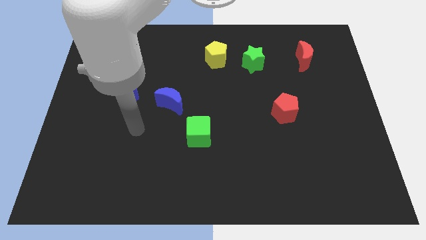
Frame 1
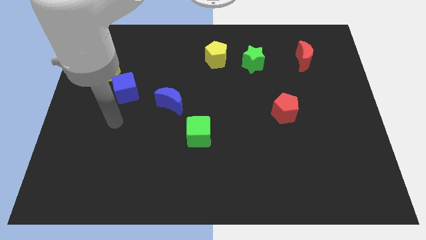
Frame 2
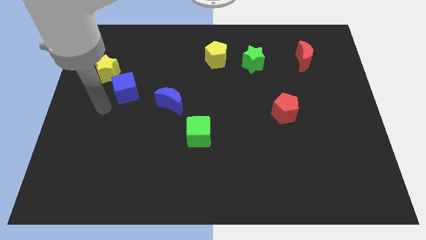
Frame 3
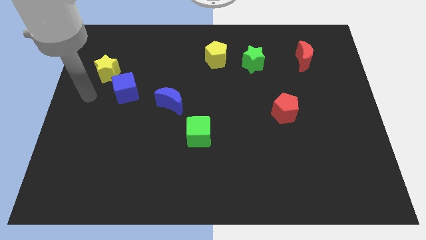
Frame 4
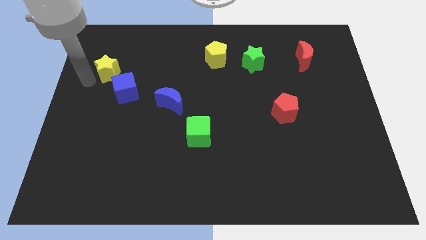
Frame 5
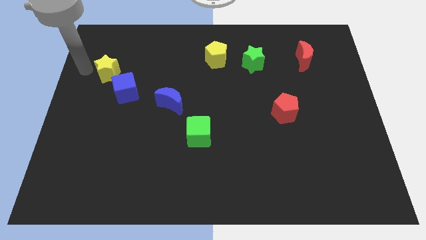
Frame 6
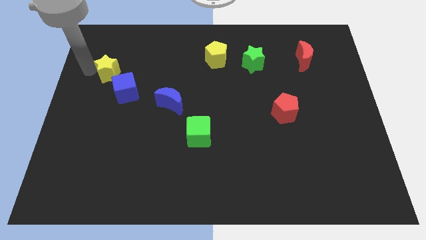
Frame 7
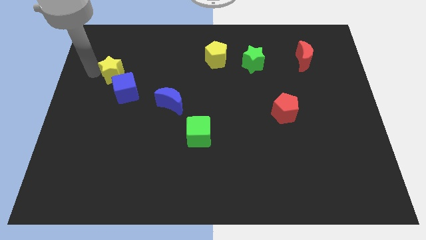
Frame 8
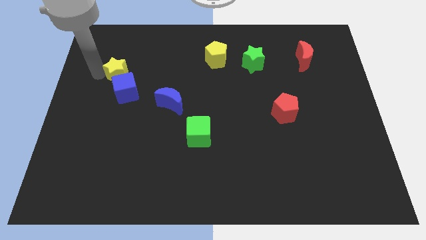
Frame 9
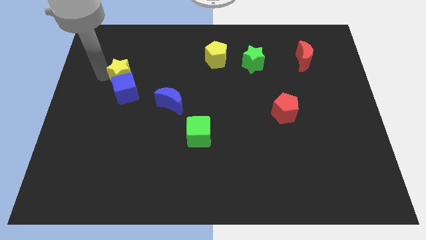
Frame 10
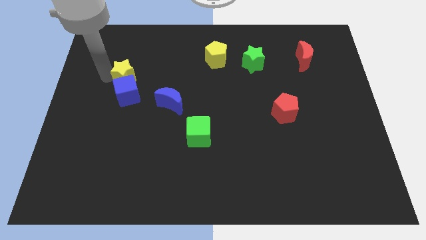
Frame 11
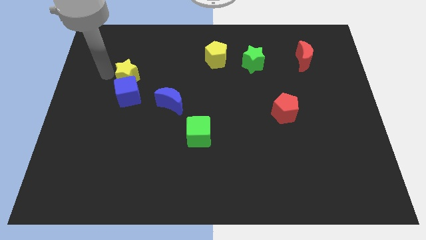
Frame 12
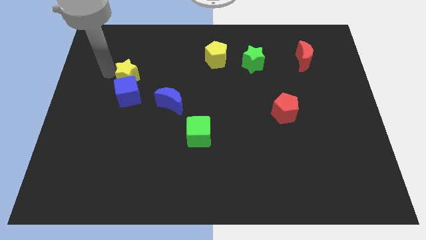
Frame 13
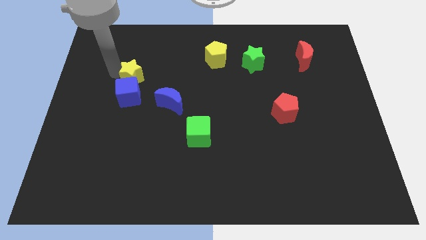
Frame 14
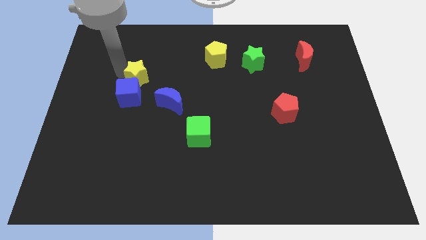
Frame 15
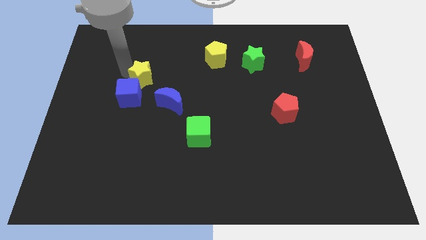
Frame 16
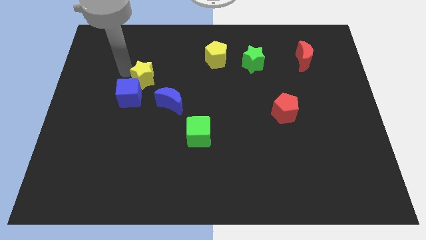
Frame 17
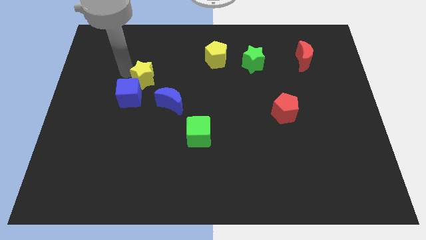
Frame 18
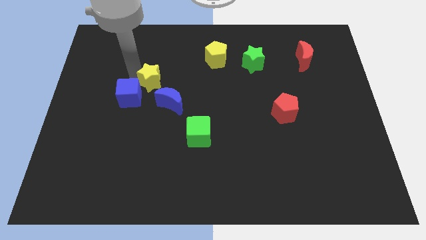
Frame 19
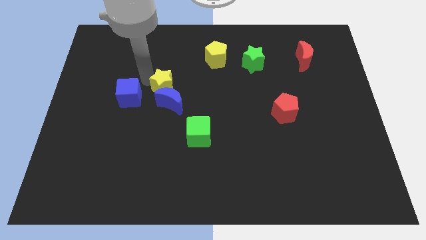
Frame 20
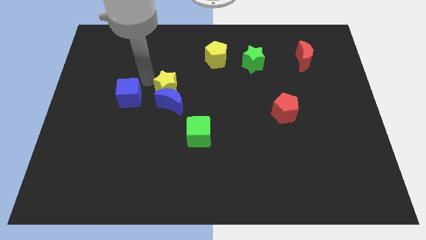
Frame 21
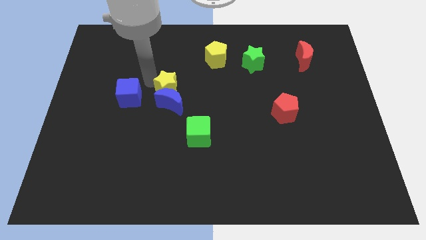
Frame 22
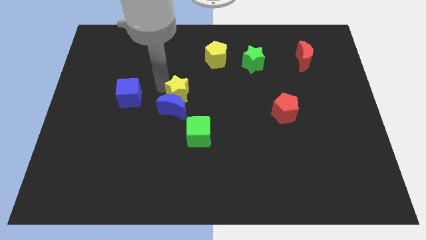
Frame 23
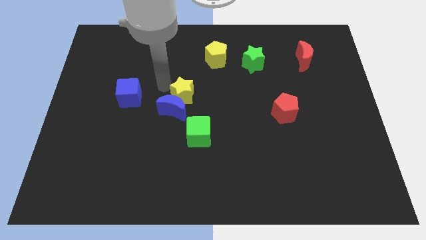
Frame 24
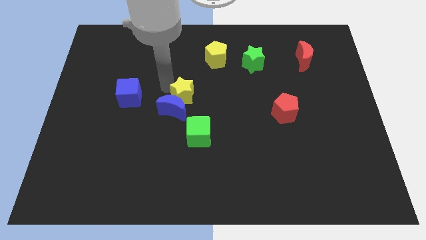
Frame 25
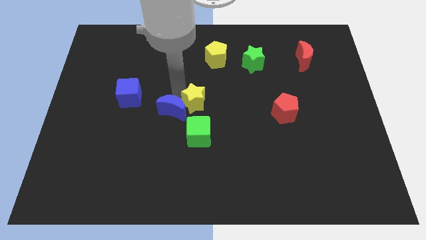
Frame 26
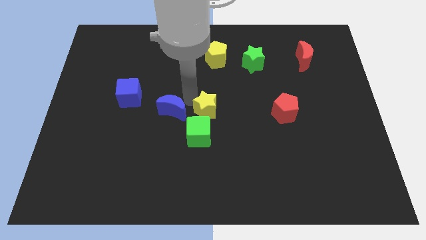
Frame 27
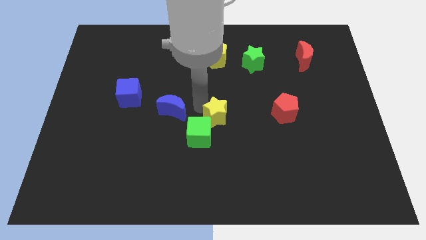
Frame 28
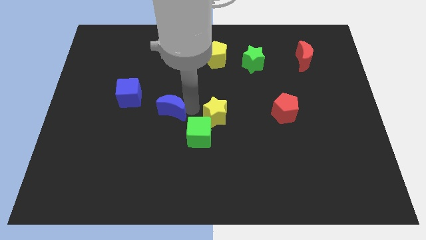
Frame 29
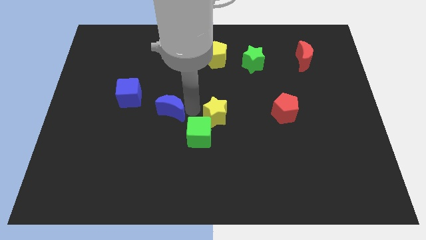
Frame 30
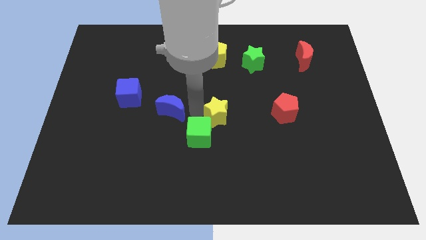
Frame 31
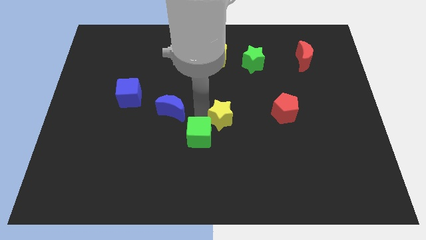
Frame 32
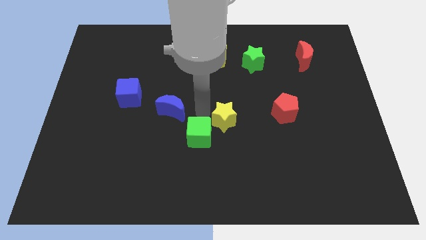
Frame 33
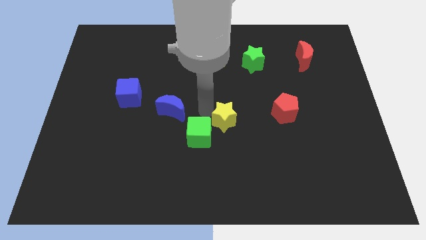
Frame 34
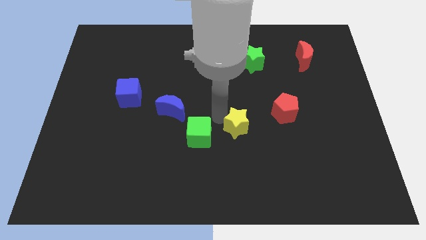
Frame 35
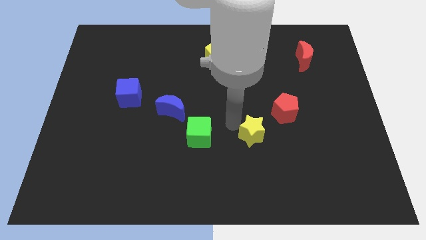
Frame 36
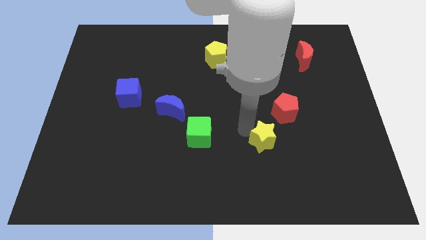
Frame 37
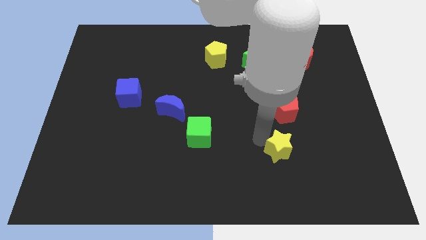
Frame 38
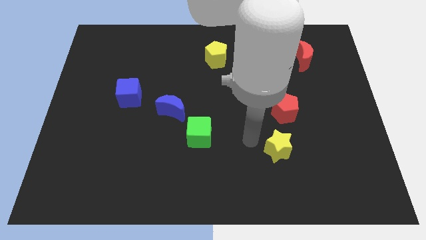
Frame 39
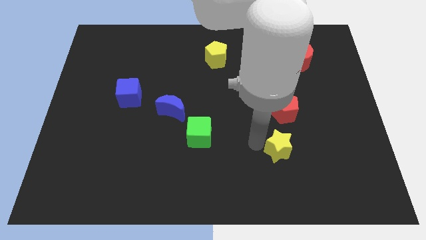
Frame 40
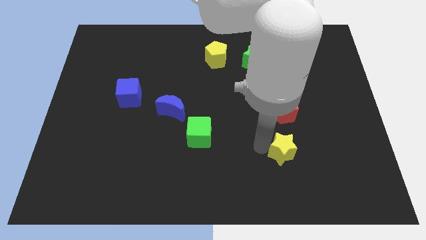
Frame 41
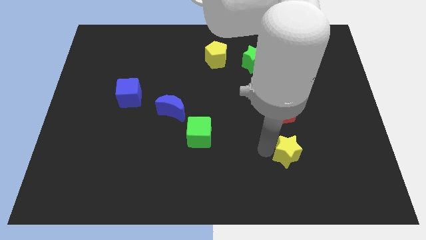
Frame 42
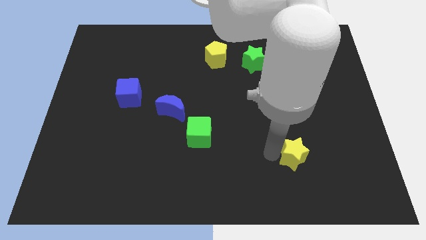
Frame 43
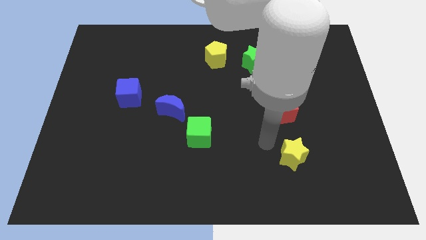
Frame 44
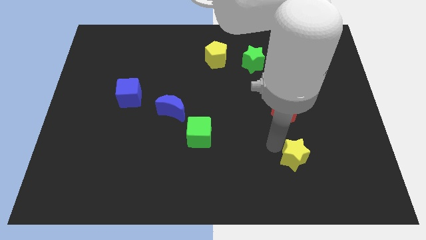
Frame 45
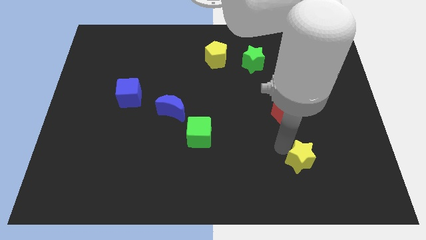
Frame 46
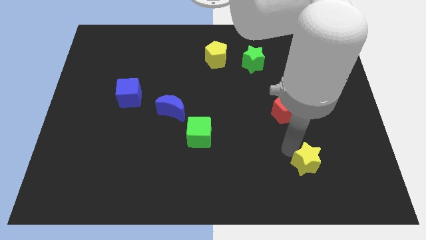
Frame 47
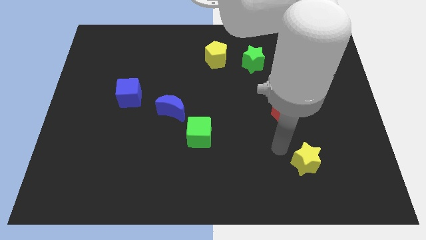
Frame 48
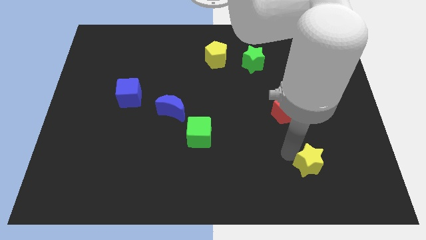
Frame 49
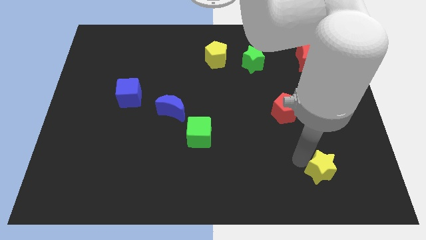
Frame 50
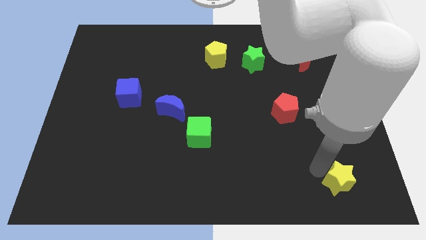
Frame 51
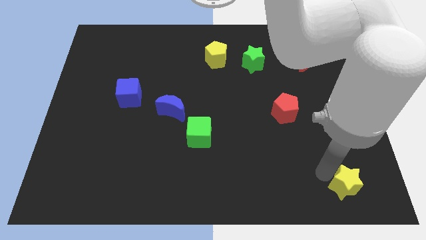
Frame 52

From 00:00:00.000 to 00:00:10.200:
move the yellow star to the bottom right of the board

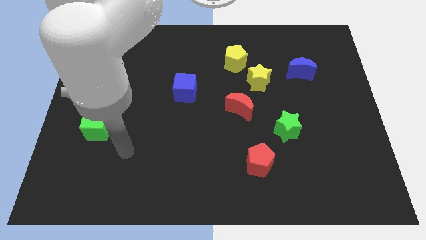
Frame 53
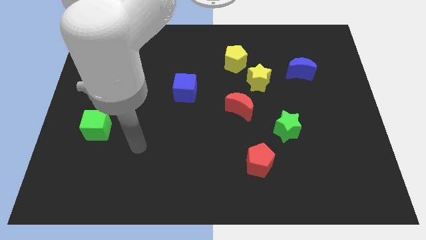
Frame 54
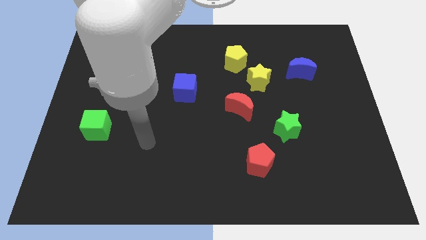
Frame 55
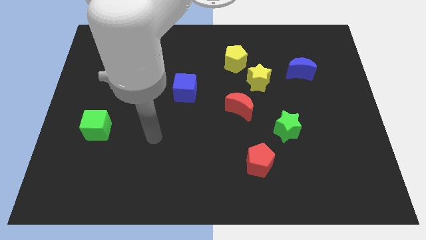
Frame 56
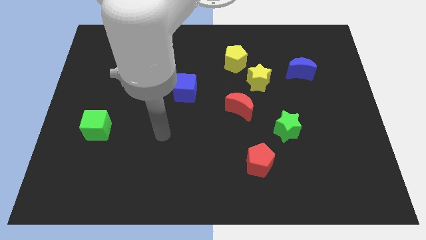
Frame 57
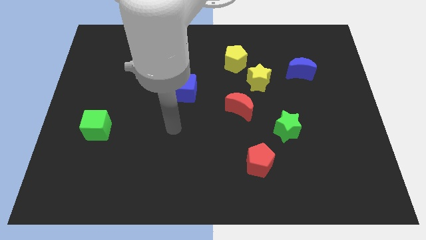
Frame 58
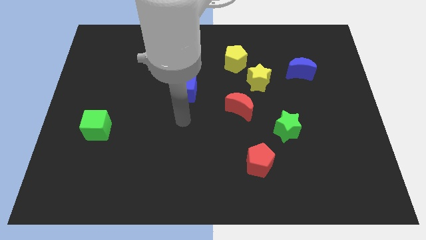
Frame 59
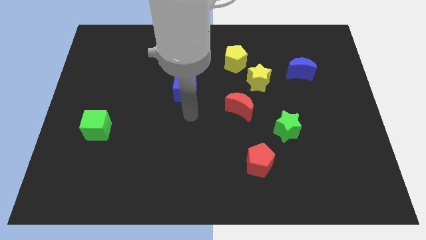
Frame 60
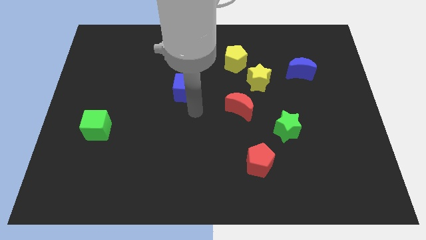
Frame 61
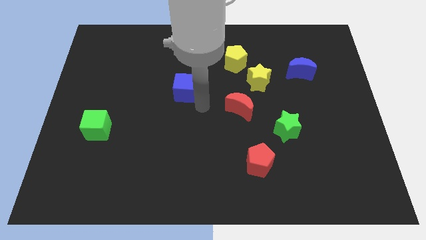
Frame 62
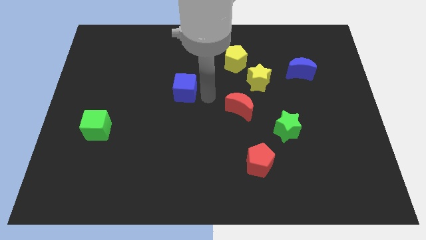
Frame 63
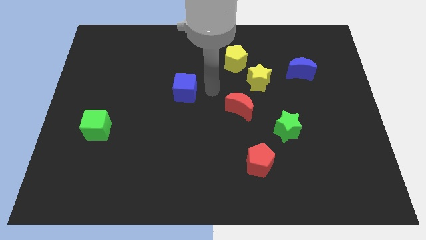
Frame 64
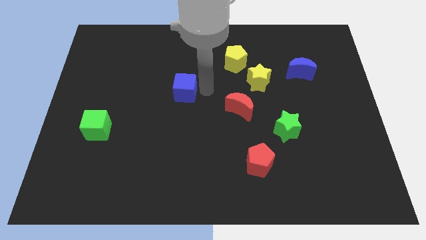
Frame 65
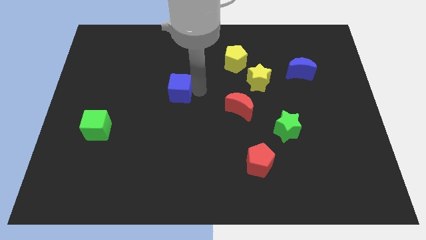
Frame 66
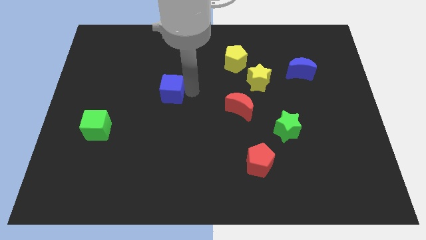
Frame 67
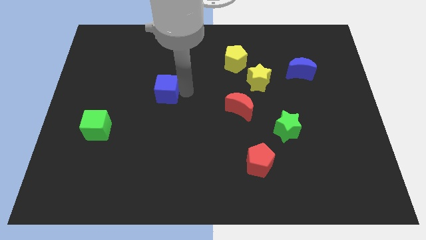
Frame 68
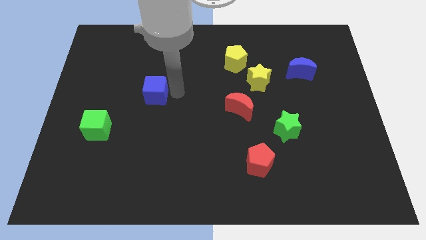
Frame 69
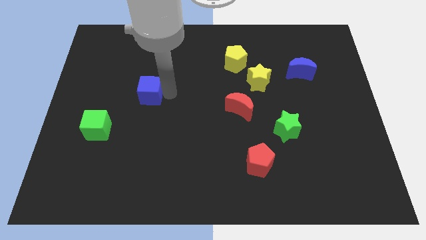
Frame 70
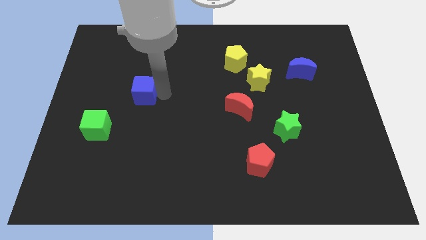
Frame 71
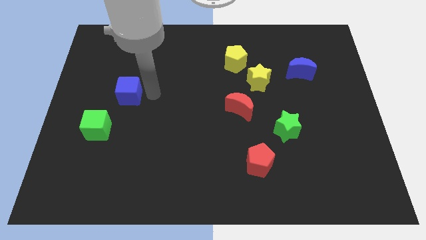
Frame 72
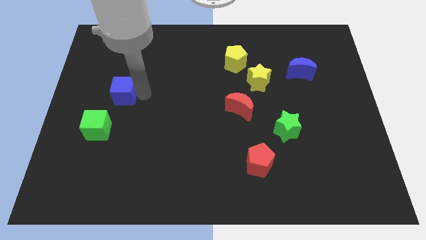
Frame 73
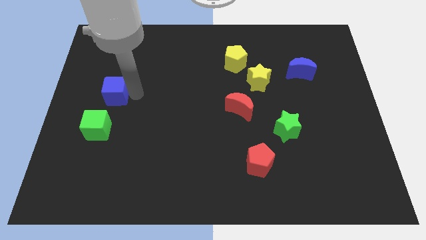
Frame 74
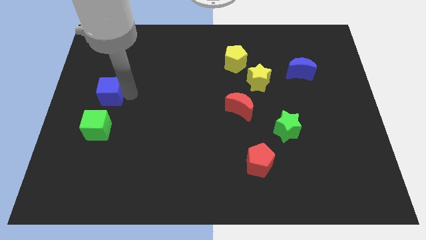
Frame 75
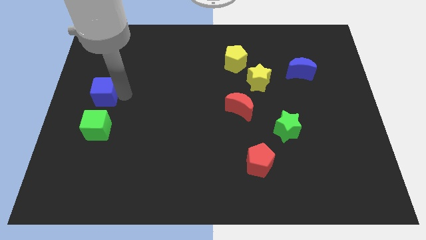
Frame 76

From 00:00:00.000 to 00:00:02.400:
slide the blue cube to the left side
